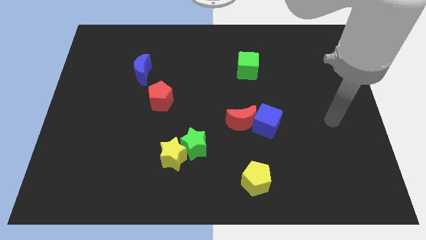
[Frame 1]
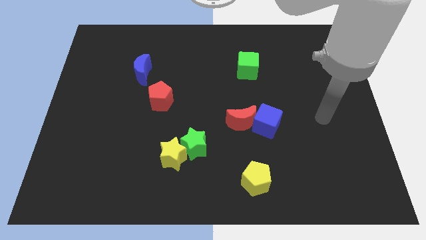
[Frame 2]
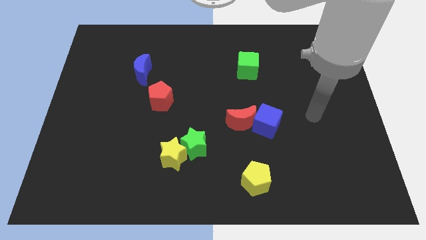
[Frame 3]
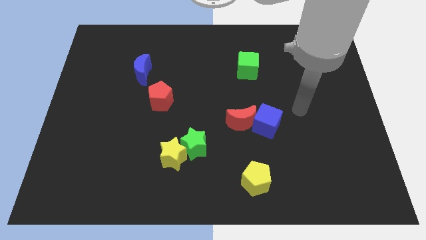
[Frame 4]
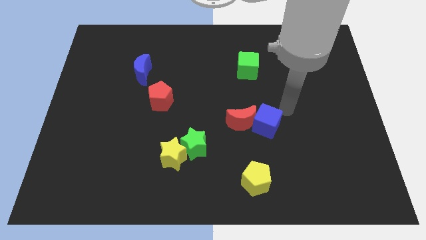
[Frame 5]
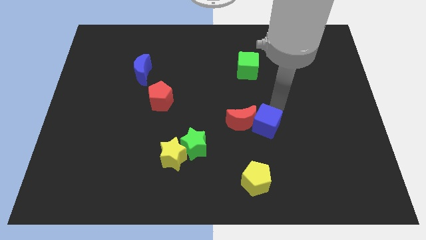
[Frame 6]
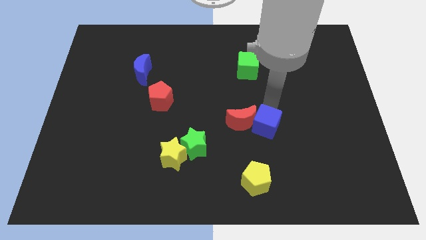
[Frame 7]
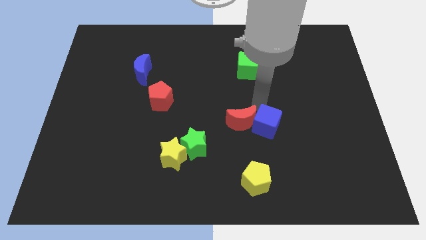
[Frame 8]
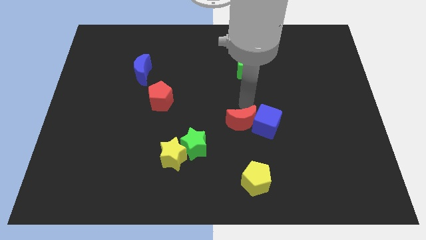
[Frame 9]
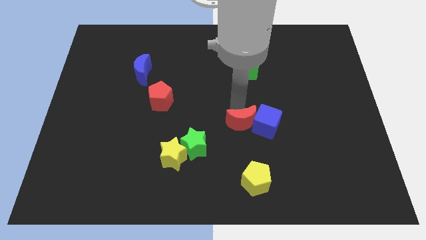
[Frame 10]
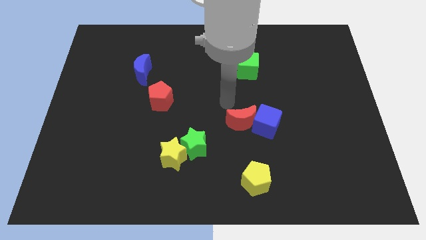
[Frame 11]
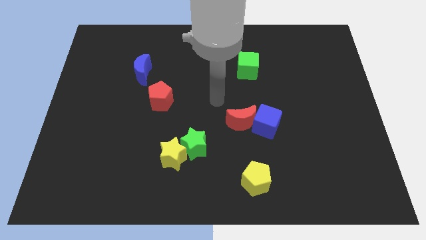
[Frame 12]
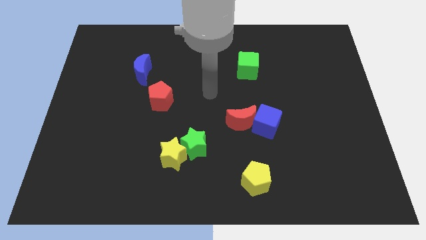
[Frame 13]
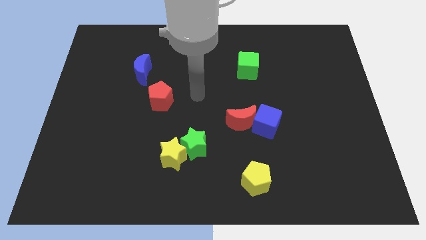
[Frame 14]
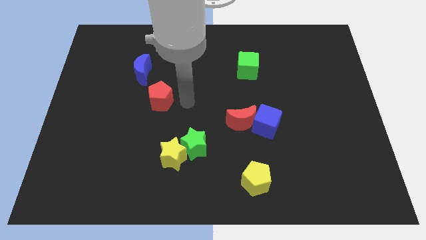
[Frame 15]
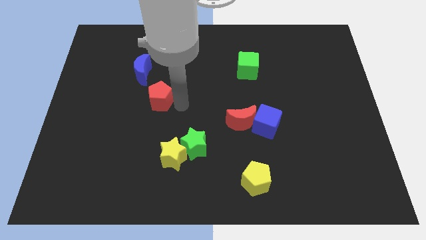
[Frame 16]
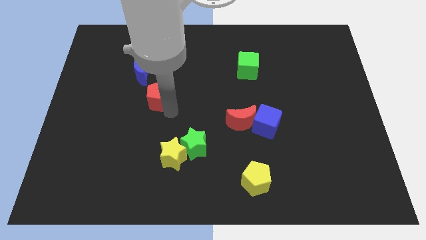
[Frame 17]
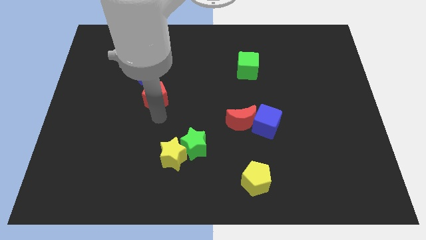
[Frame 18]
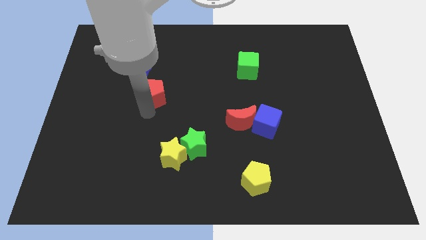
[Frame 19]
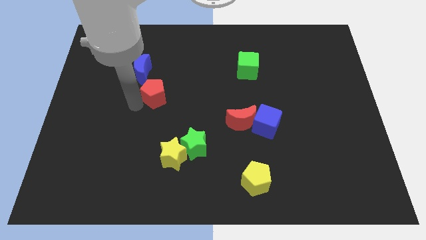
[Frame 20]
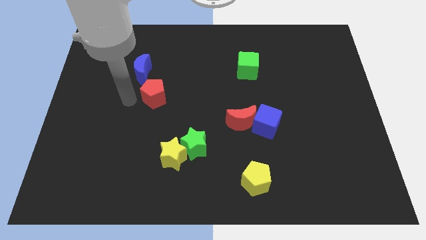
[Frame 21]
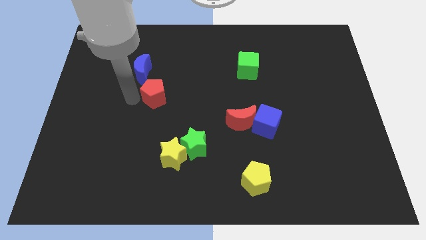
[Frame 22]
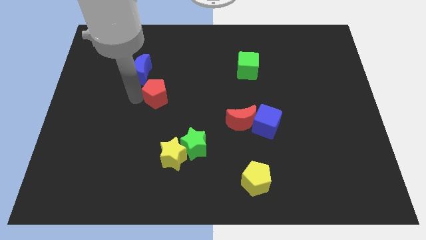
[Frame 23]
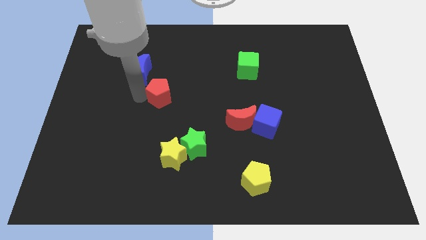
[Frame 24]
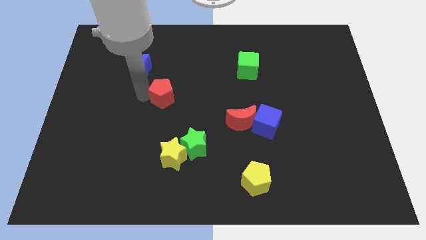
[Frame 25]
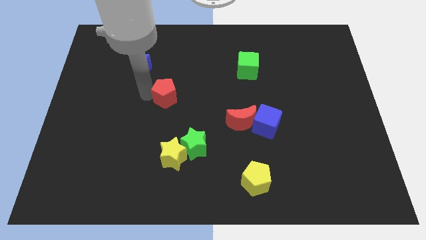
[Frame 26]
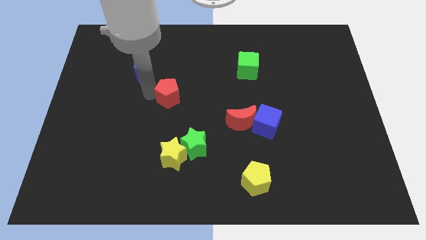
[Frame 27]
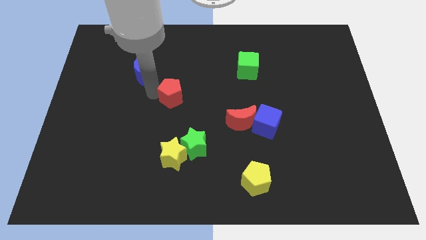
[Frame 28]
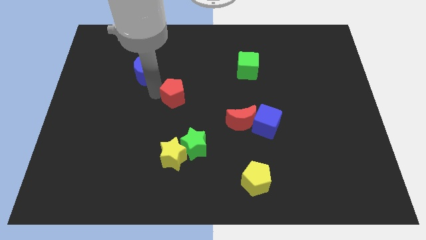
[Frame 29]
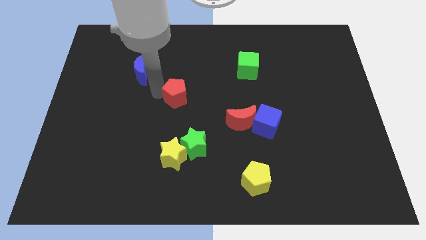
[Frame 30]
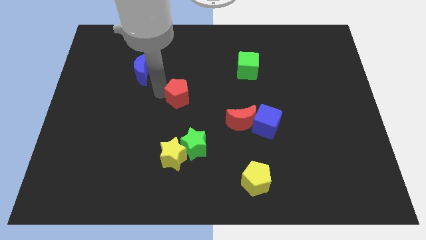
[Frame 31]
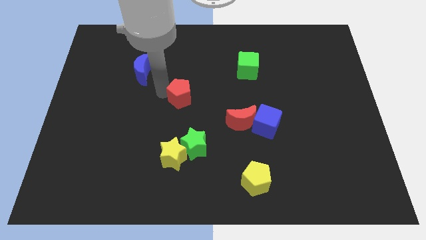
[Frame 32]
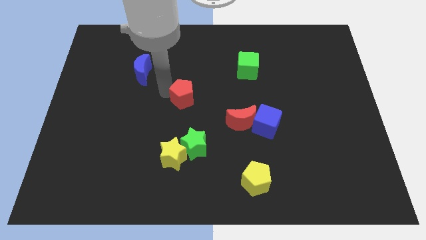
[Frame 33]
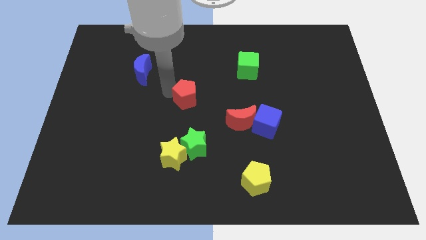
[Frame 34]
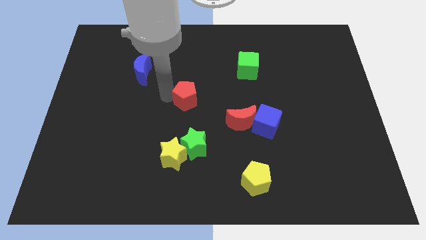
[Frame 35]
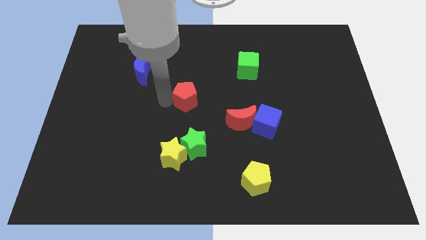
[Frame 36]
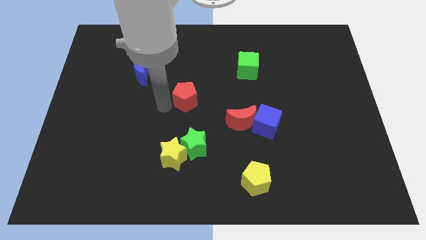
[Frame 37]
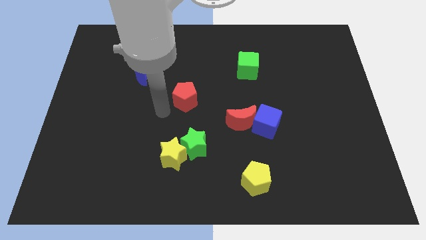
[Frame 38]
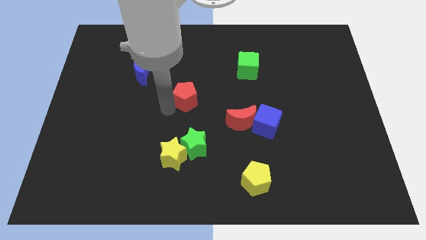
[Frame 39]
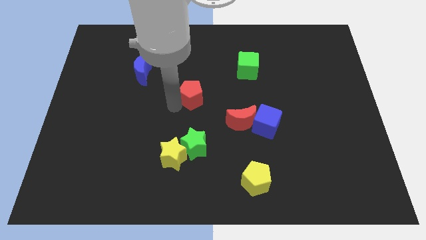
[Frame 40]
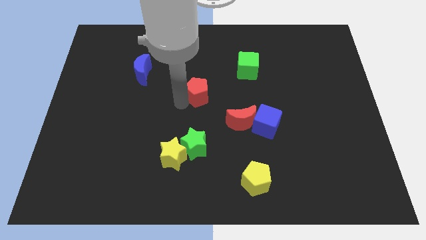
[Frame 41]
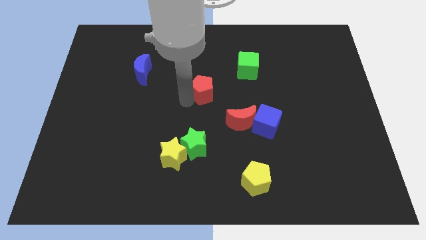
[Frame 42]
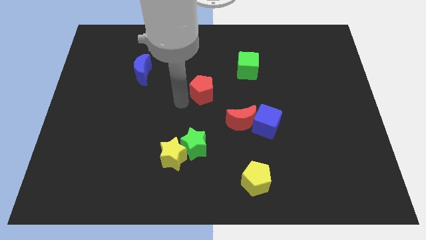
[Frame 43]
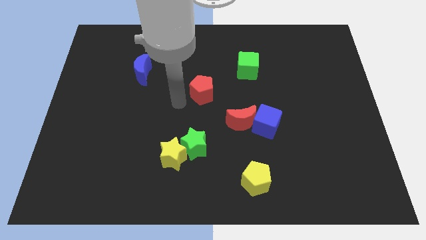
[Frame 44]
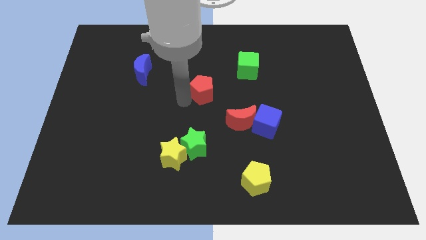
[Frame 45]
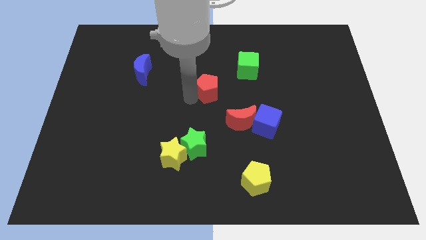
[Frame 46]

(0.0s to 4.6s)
put the red pentagon to the bottom left side of the green cube

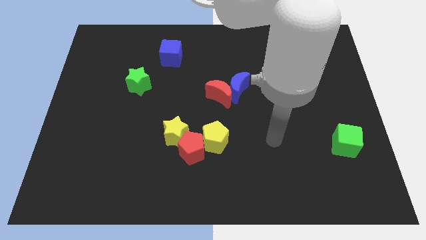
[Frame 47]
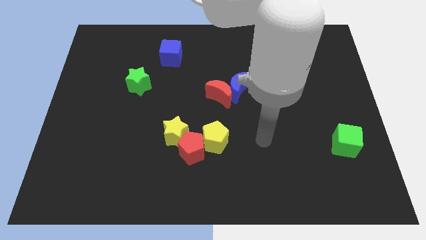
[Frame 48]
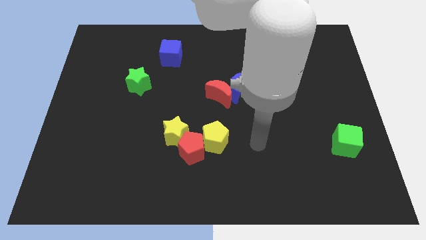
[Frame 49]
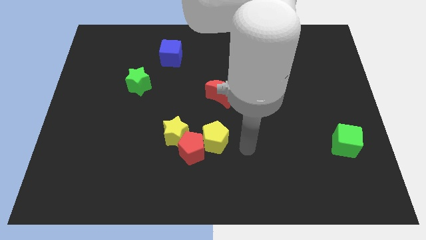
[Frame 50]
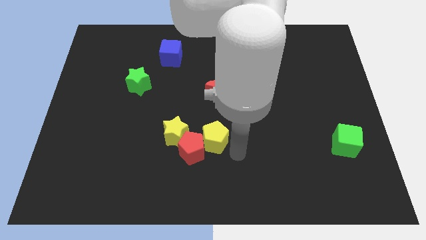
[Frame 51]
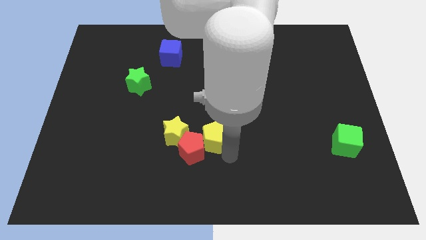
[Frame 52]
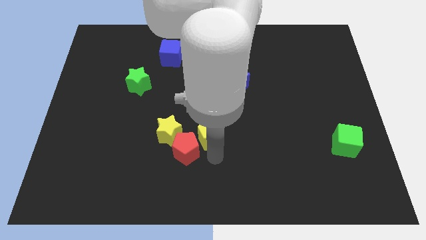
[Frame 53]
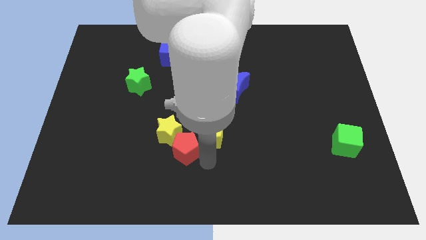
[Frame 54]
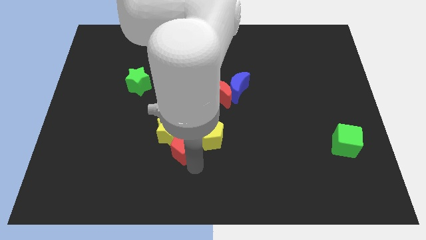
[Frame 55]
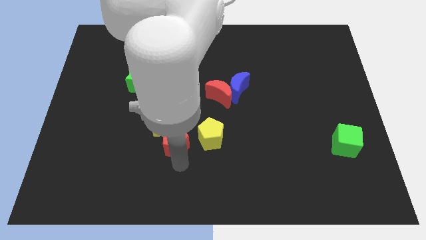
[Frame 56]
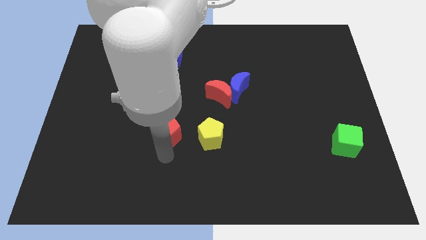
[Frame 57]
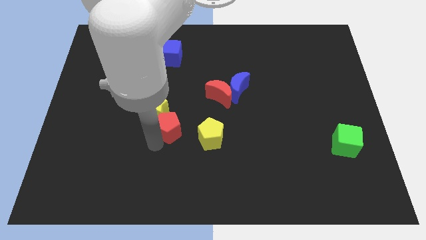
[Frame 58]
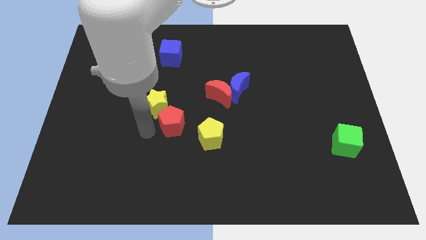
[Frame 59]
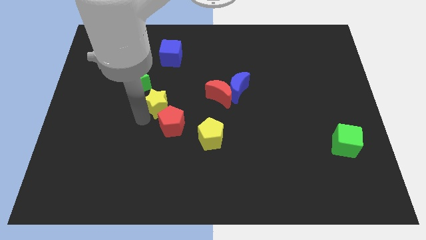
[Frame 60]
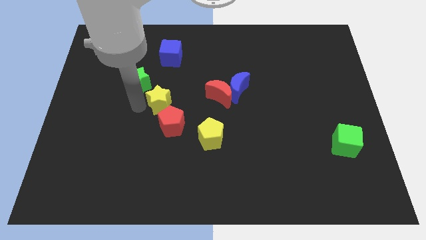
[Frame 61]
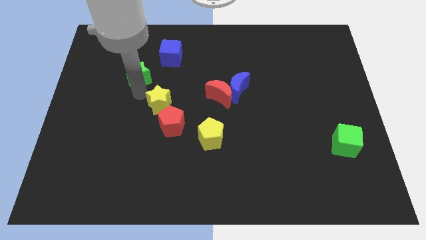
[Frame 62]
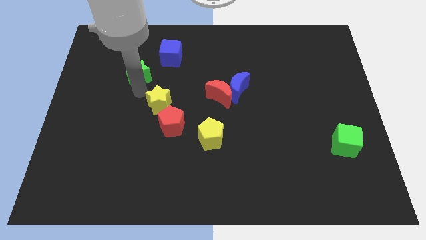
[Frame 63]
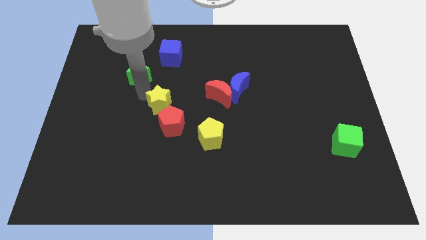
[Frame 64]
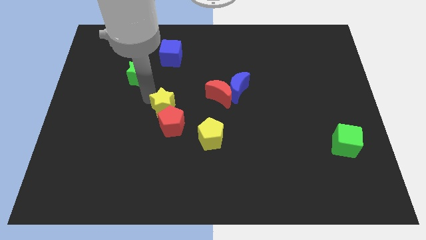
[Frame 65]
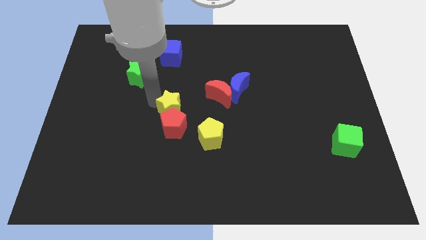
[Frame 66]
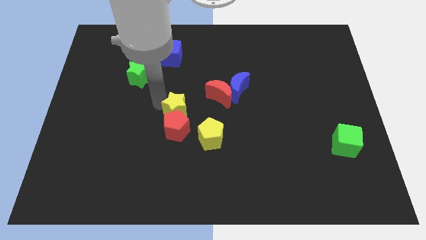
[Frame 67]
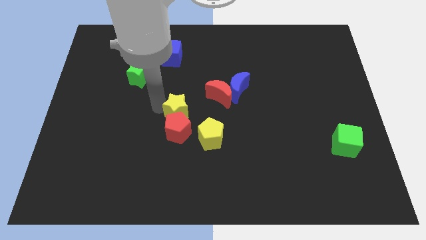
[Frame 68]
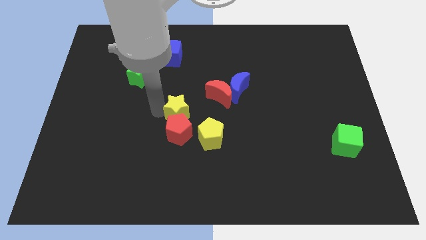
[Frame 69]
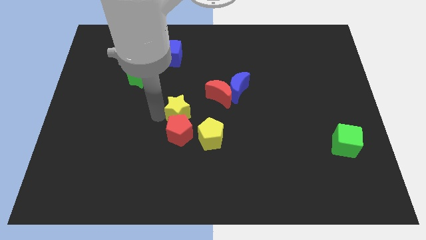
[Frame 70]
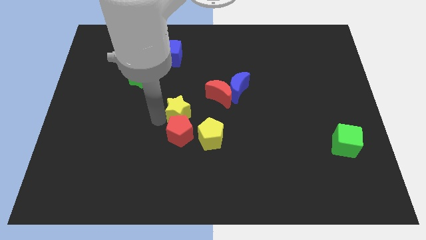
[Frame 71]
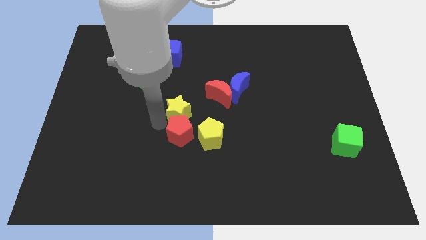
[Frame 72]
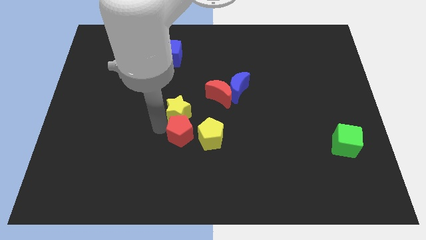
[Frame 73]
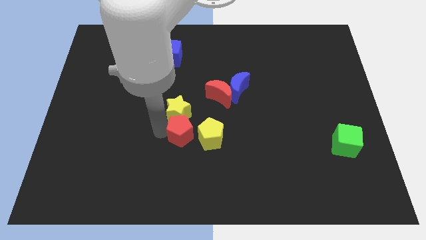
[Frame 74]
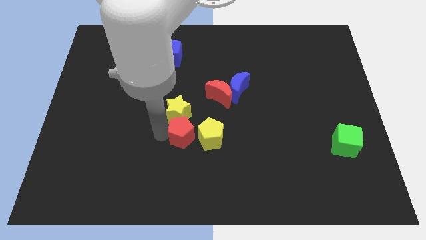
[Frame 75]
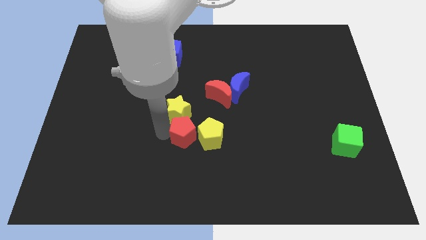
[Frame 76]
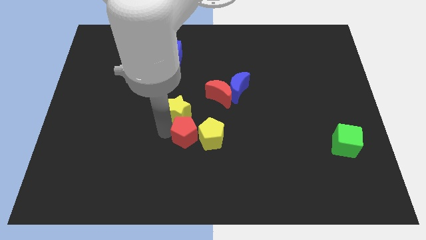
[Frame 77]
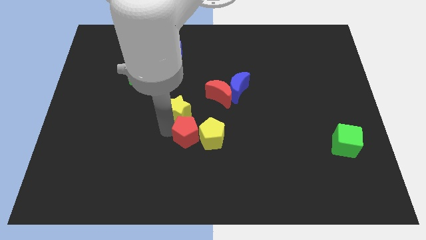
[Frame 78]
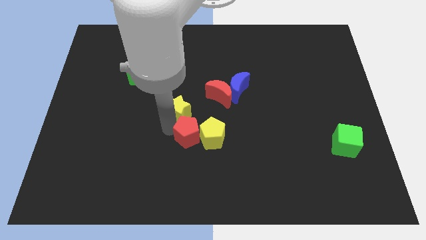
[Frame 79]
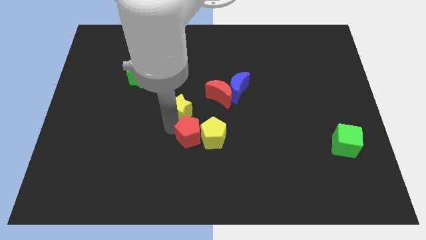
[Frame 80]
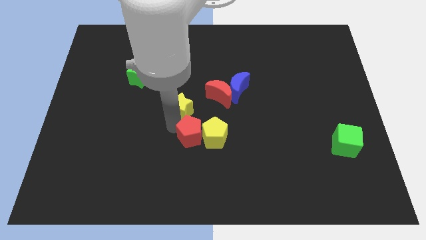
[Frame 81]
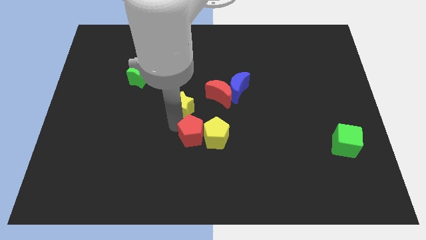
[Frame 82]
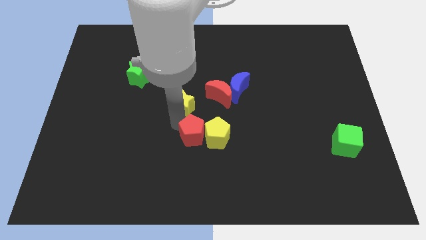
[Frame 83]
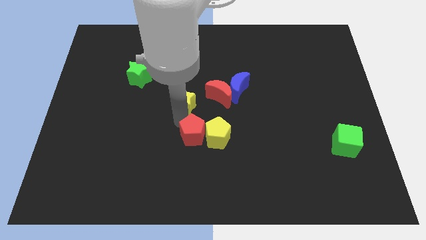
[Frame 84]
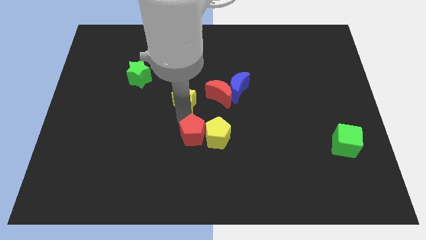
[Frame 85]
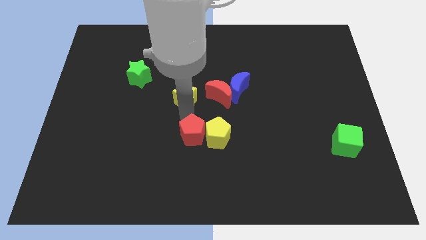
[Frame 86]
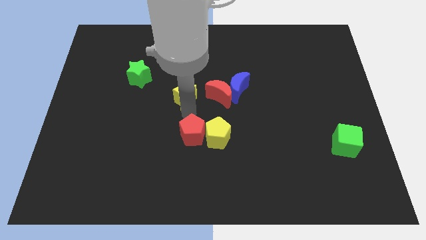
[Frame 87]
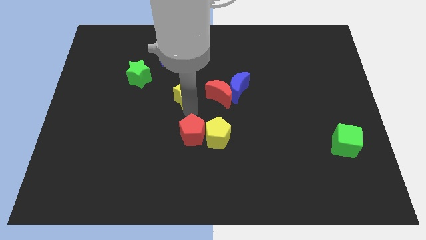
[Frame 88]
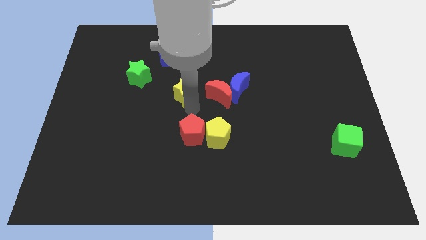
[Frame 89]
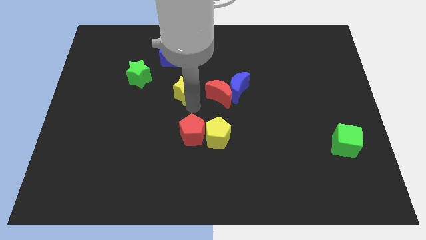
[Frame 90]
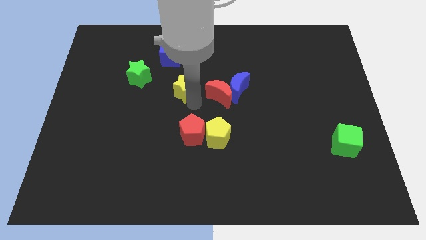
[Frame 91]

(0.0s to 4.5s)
push the yellow star diagonally up and to the left of the red moon
